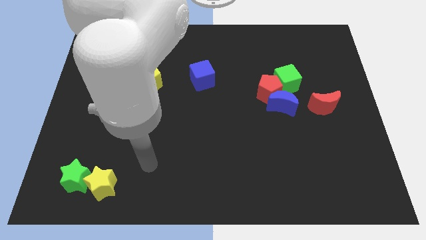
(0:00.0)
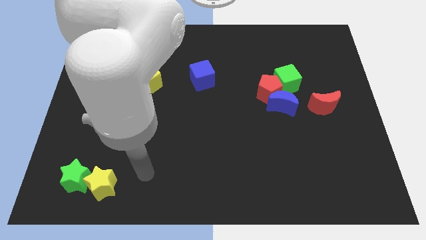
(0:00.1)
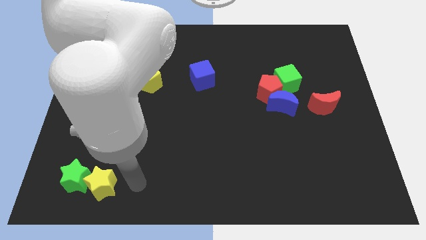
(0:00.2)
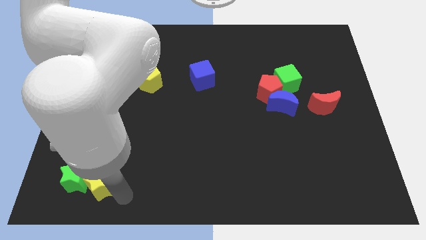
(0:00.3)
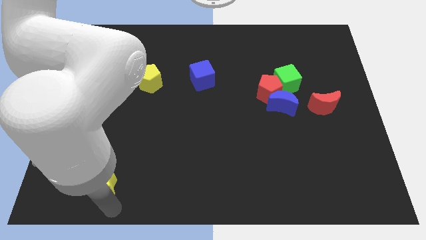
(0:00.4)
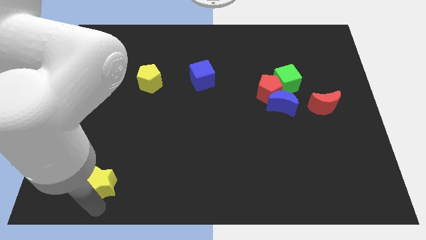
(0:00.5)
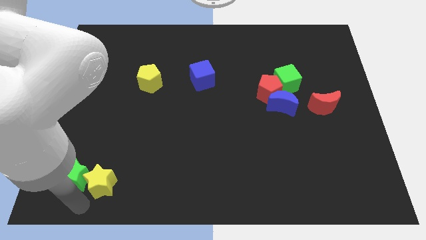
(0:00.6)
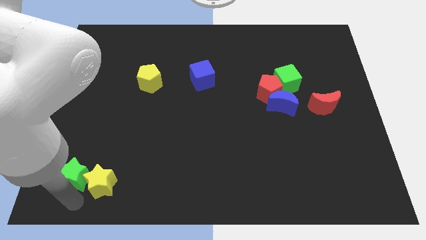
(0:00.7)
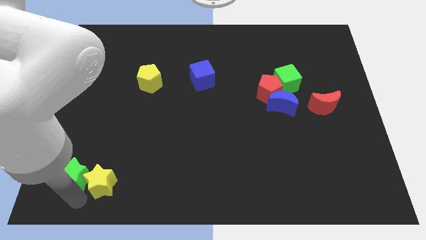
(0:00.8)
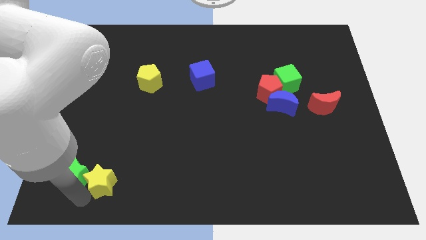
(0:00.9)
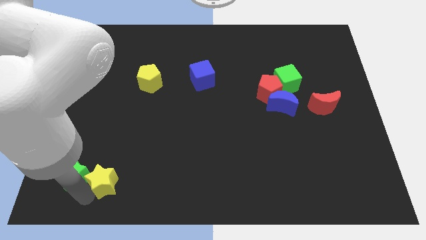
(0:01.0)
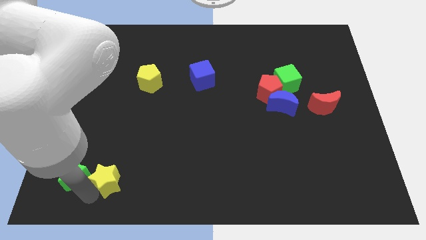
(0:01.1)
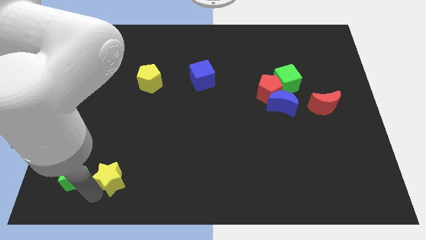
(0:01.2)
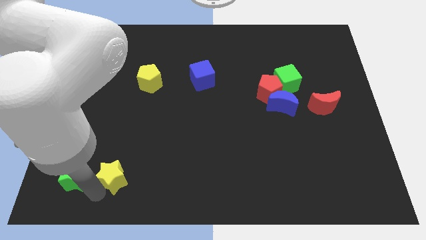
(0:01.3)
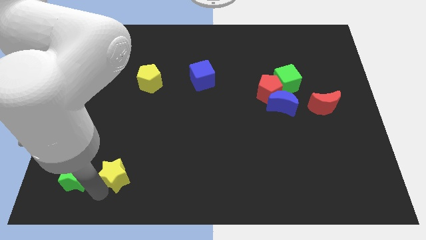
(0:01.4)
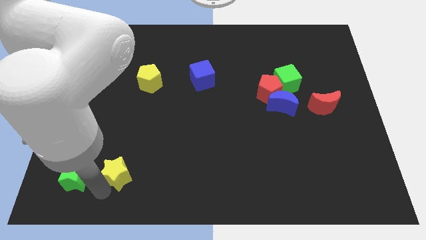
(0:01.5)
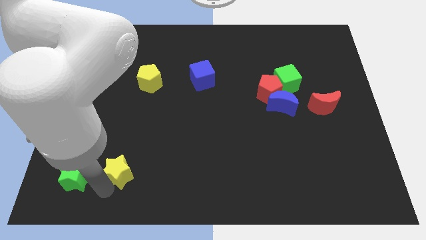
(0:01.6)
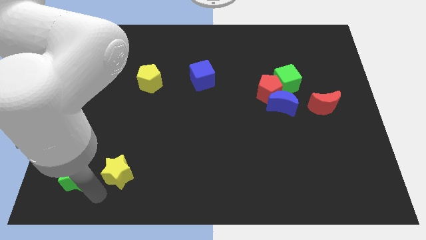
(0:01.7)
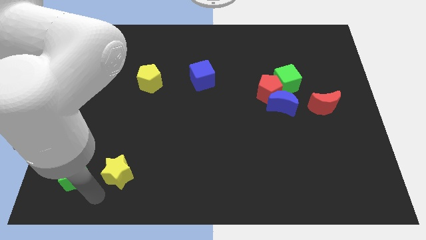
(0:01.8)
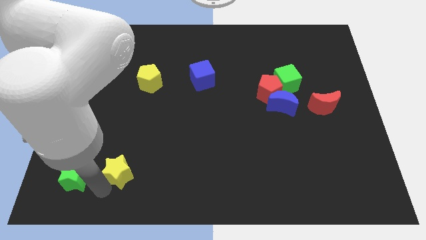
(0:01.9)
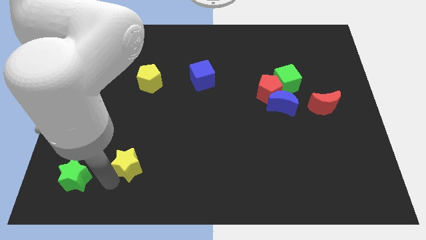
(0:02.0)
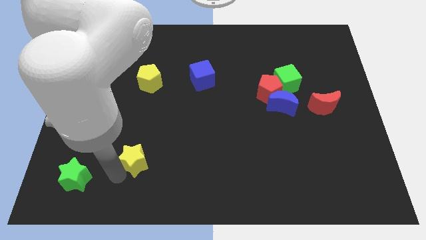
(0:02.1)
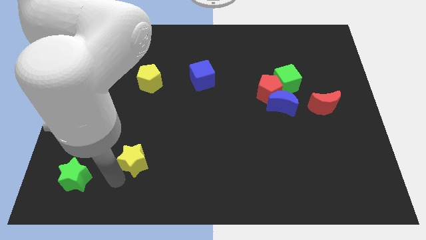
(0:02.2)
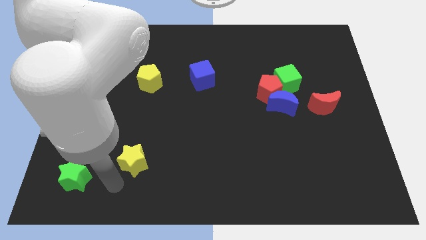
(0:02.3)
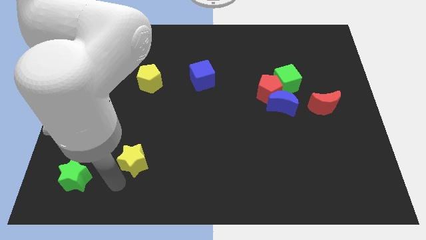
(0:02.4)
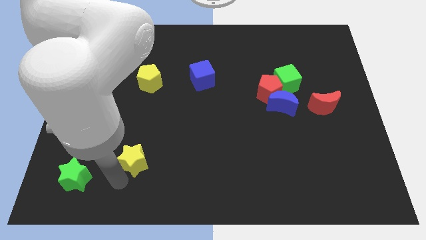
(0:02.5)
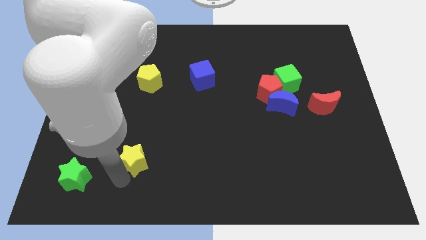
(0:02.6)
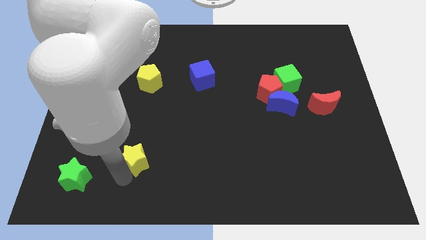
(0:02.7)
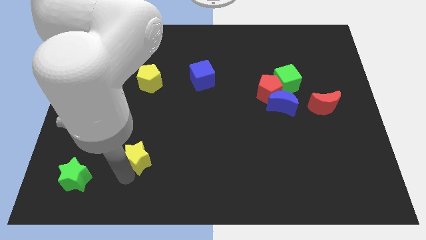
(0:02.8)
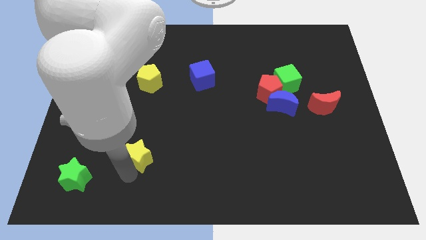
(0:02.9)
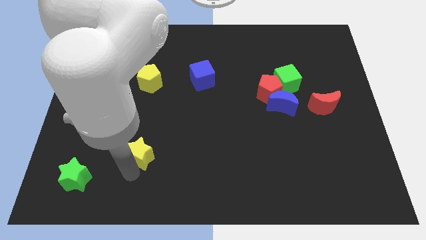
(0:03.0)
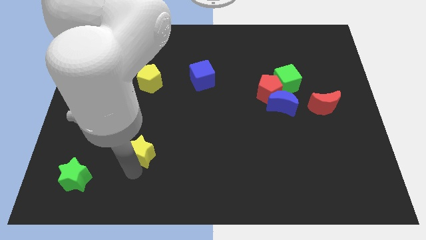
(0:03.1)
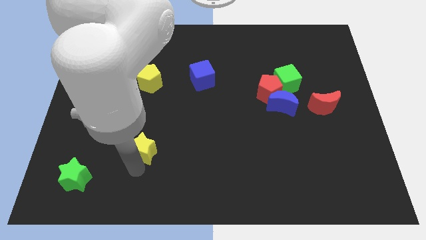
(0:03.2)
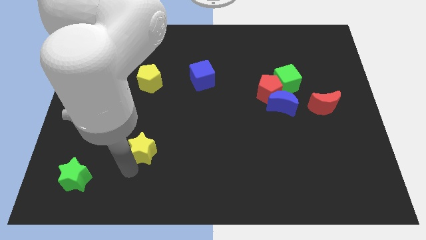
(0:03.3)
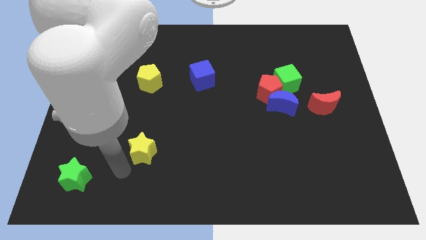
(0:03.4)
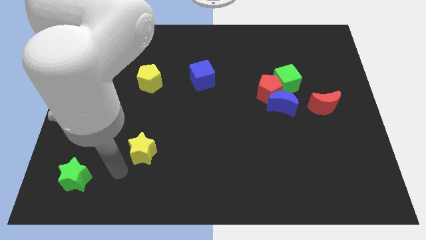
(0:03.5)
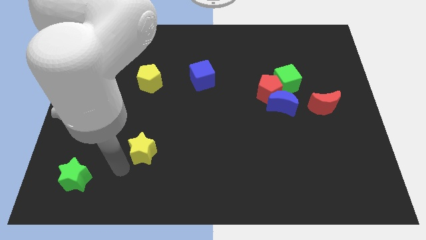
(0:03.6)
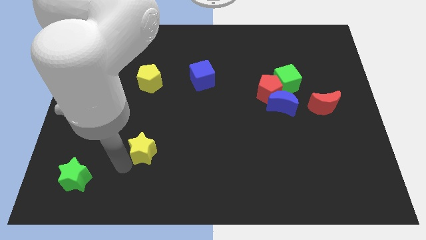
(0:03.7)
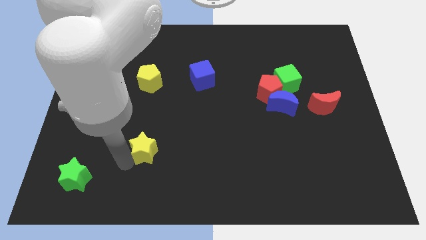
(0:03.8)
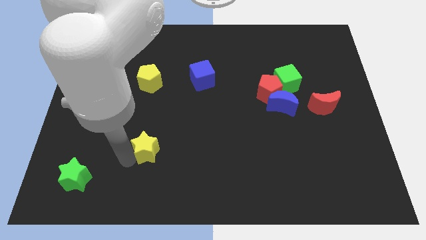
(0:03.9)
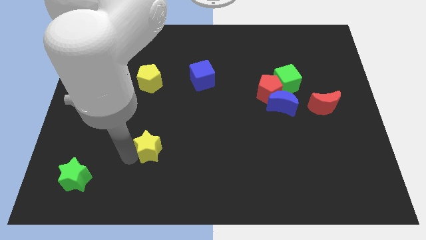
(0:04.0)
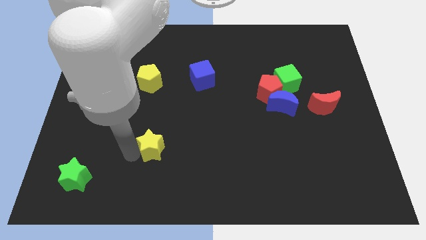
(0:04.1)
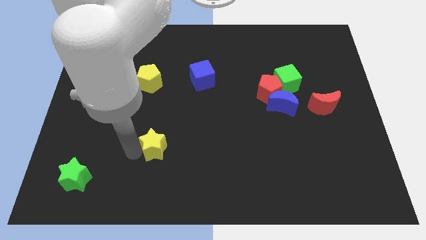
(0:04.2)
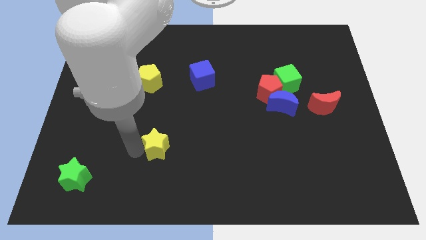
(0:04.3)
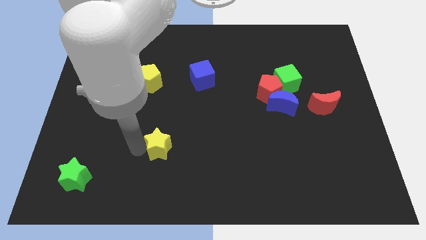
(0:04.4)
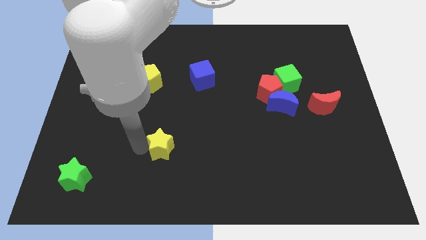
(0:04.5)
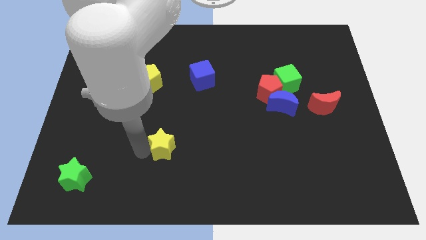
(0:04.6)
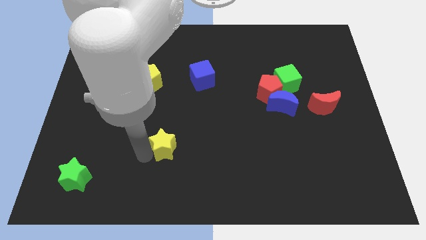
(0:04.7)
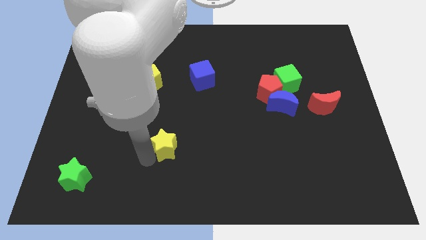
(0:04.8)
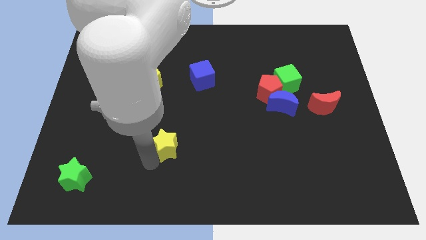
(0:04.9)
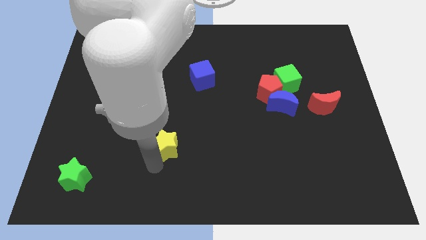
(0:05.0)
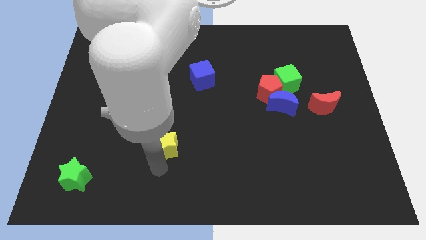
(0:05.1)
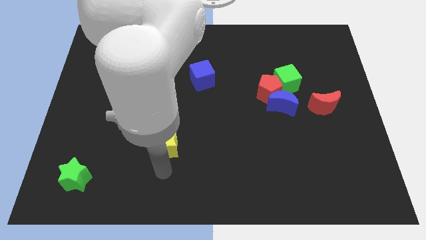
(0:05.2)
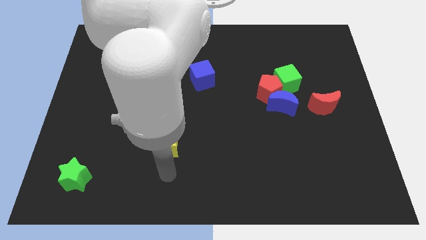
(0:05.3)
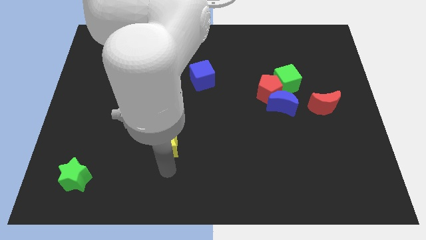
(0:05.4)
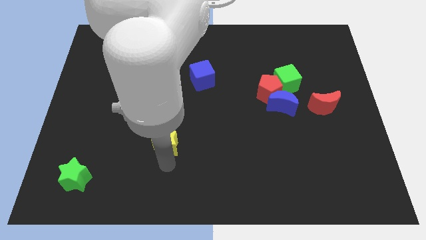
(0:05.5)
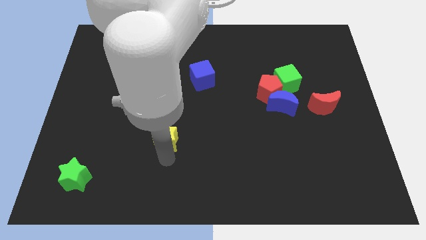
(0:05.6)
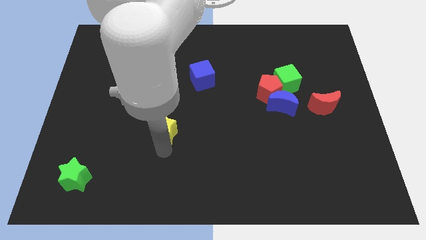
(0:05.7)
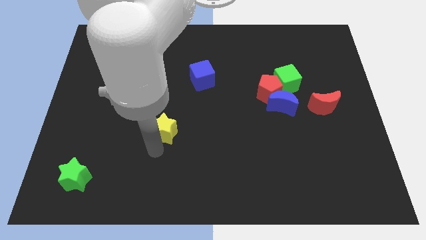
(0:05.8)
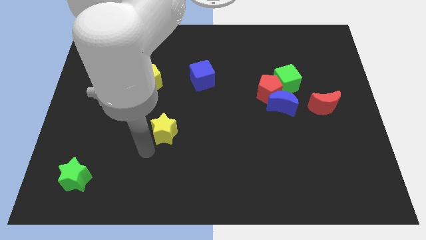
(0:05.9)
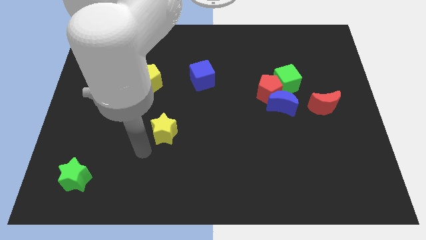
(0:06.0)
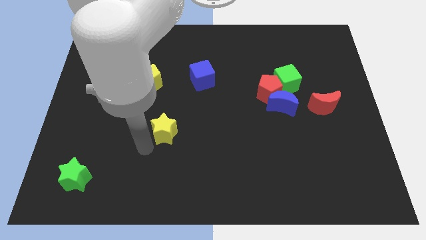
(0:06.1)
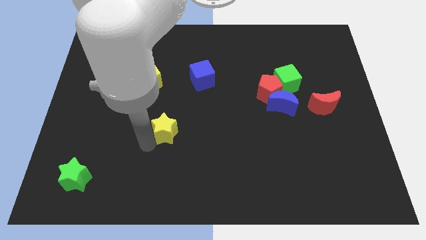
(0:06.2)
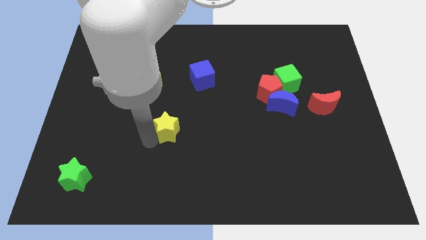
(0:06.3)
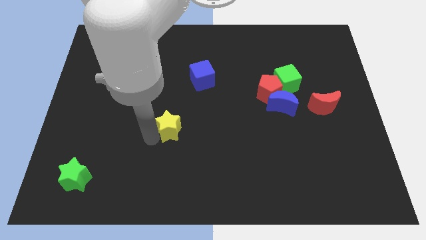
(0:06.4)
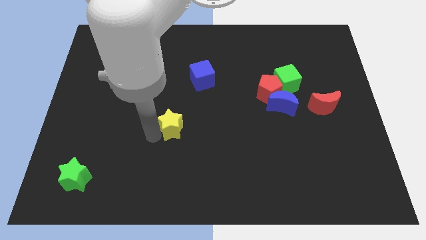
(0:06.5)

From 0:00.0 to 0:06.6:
put the yellow star to the middle of the board
